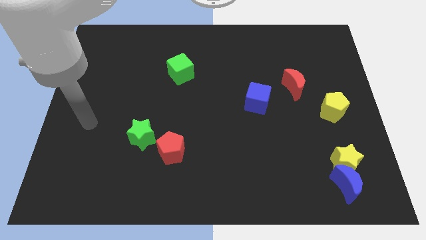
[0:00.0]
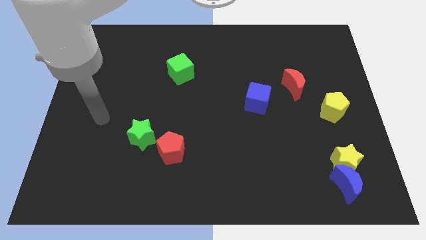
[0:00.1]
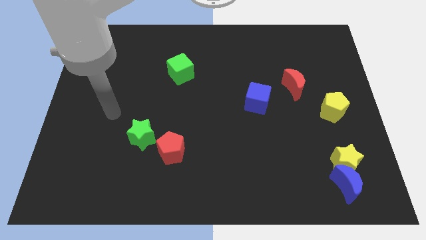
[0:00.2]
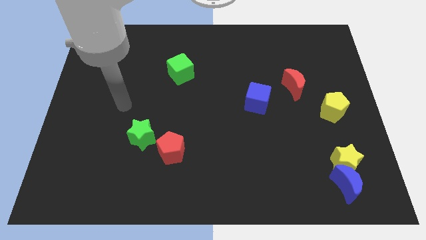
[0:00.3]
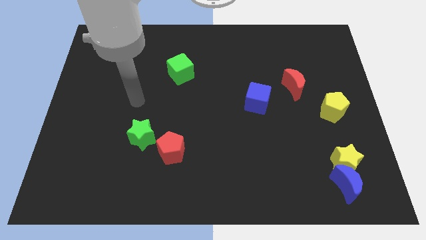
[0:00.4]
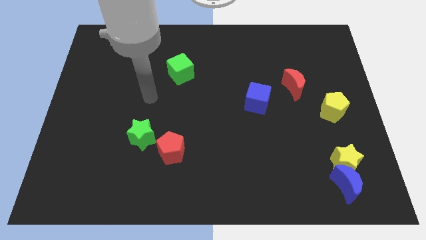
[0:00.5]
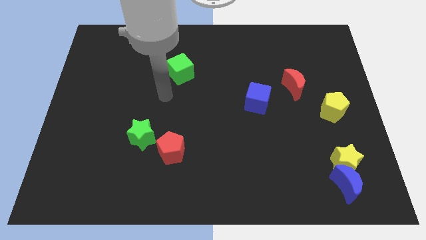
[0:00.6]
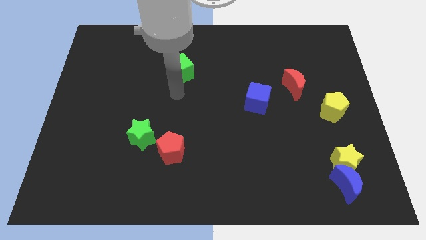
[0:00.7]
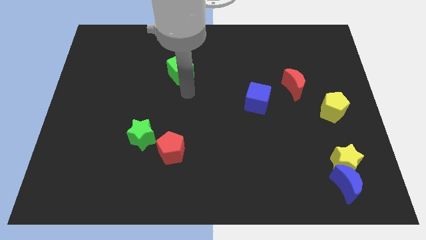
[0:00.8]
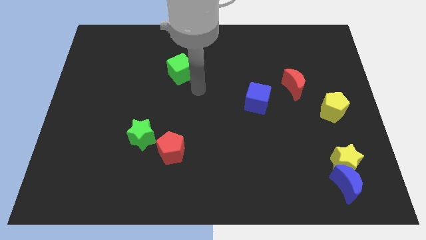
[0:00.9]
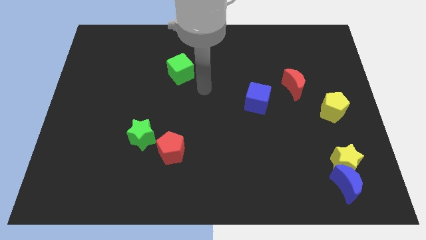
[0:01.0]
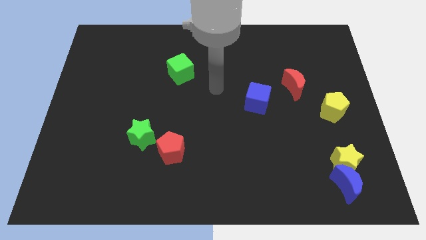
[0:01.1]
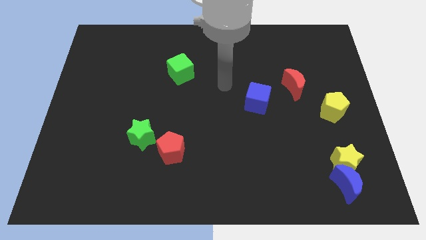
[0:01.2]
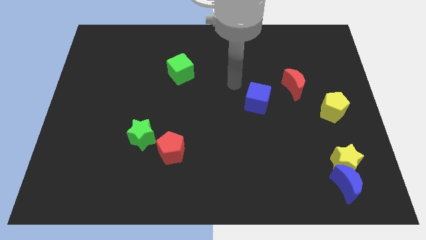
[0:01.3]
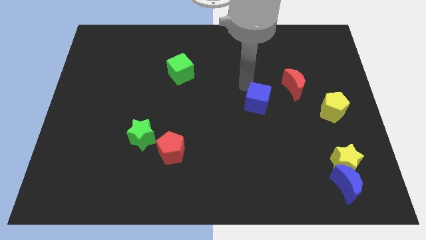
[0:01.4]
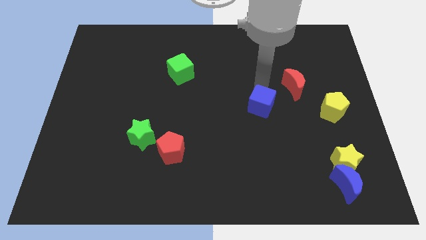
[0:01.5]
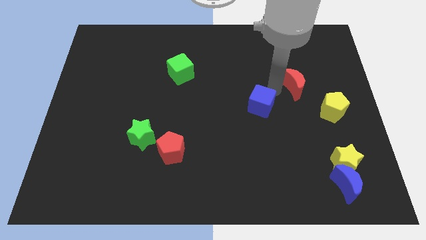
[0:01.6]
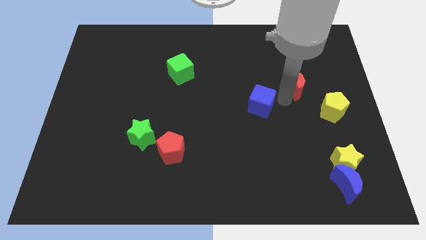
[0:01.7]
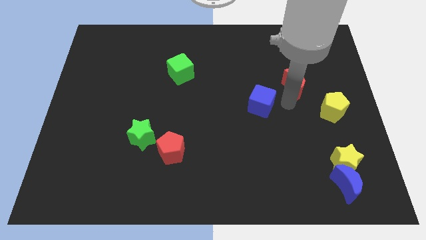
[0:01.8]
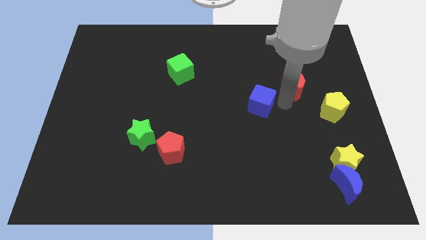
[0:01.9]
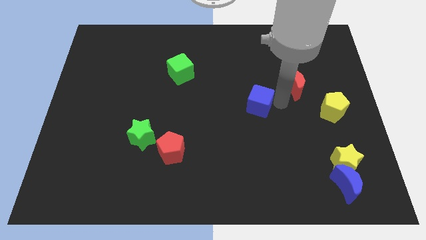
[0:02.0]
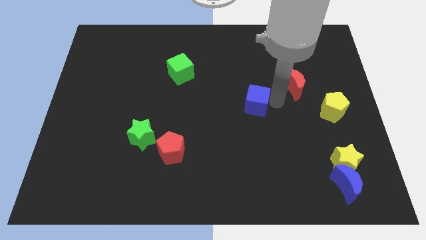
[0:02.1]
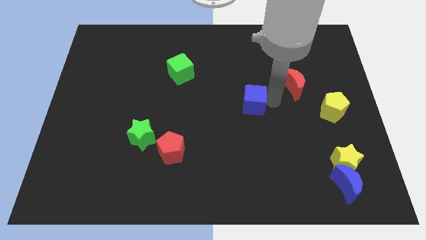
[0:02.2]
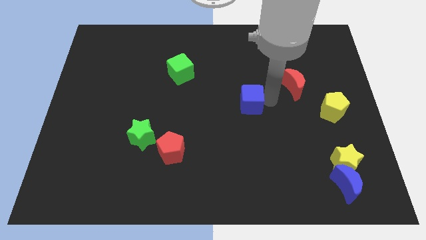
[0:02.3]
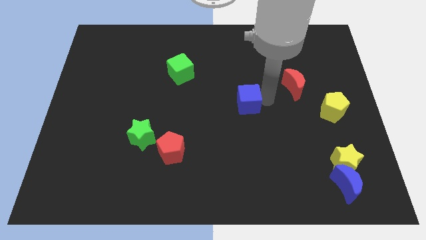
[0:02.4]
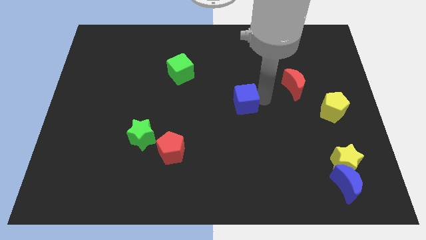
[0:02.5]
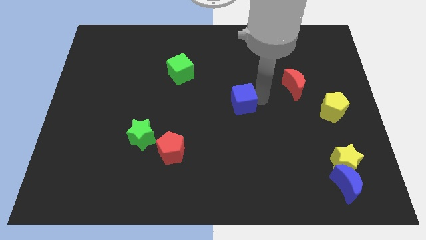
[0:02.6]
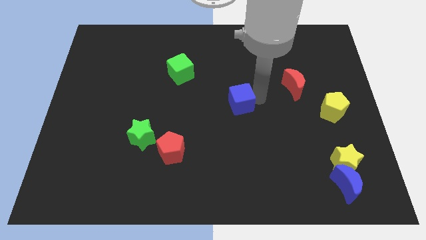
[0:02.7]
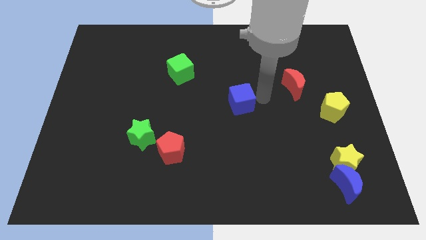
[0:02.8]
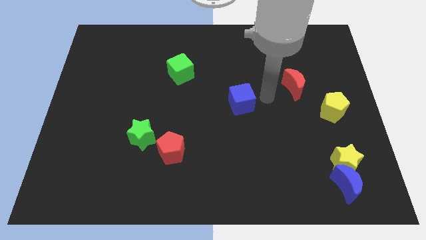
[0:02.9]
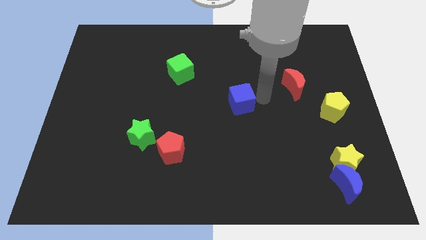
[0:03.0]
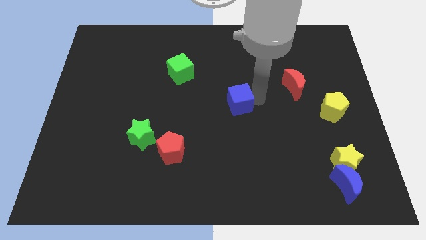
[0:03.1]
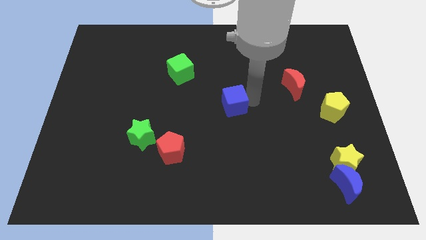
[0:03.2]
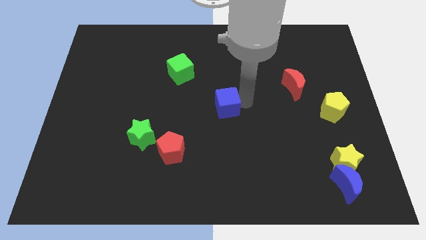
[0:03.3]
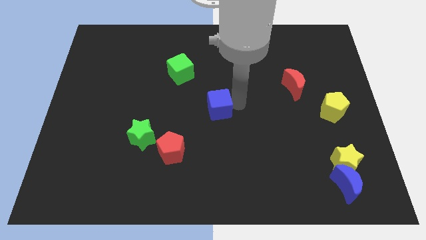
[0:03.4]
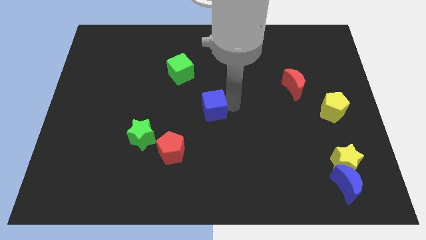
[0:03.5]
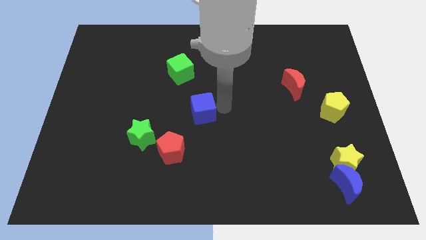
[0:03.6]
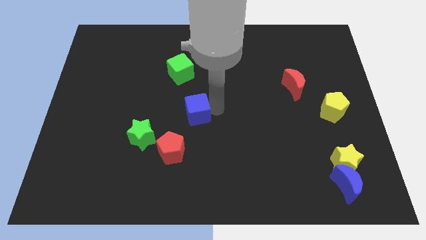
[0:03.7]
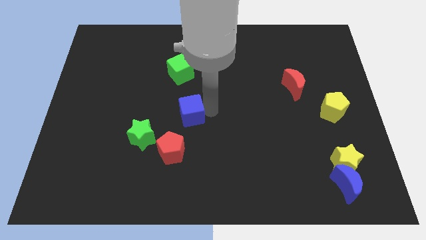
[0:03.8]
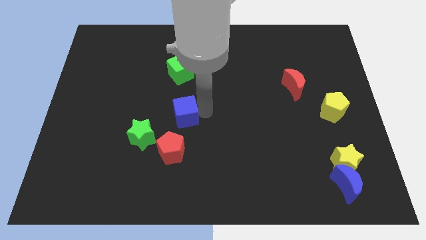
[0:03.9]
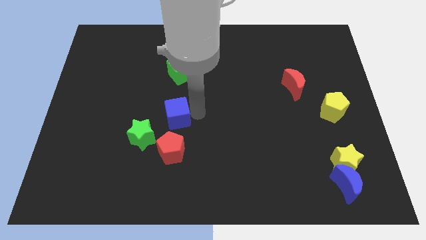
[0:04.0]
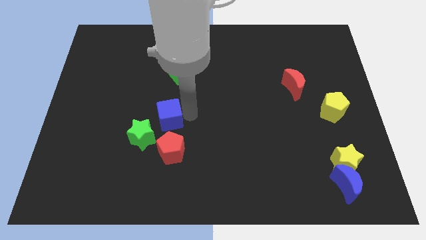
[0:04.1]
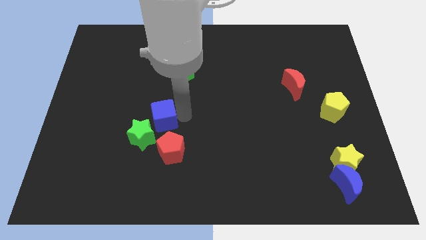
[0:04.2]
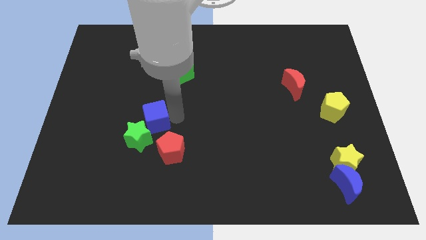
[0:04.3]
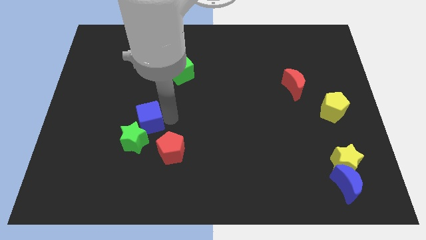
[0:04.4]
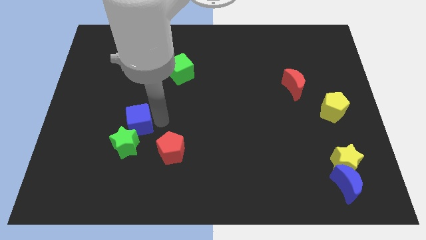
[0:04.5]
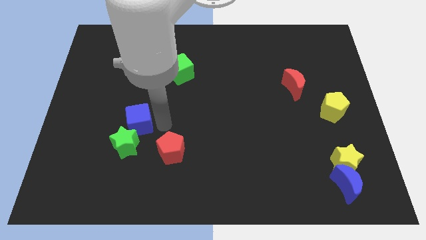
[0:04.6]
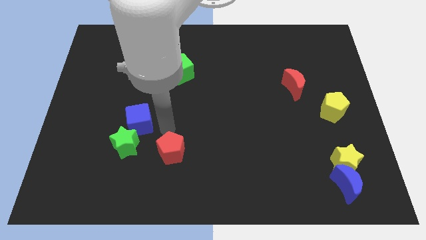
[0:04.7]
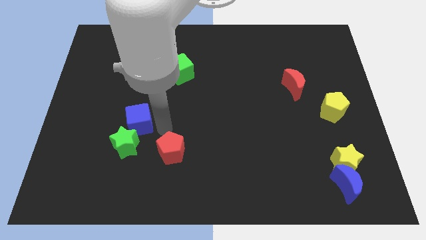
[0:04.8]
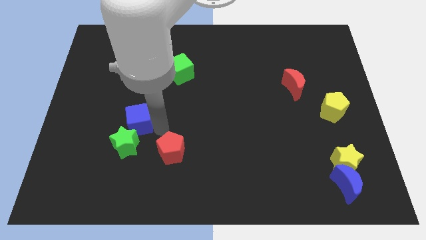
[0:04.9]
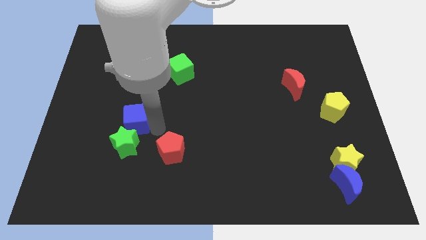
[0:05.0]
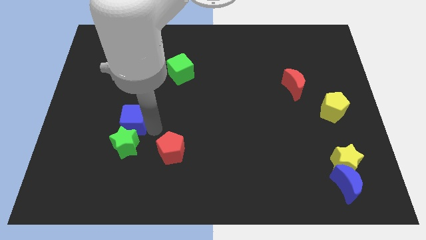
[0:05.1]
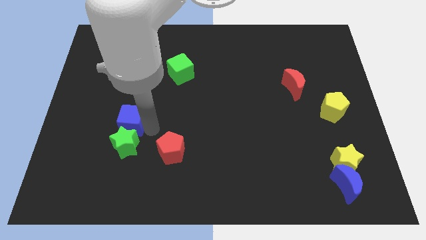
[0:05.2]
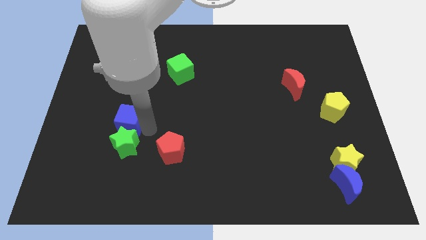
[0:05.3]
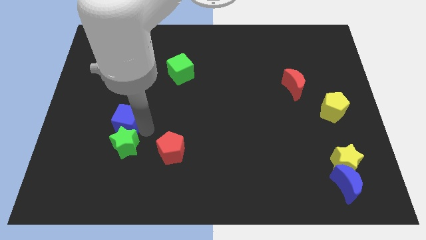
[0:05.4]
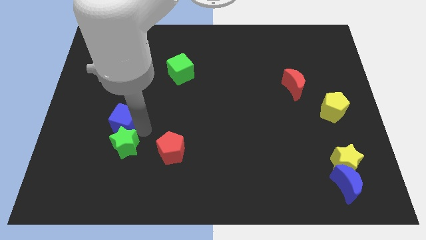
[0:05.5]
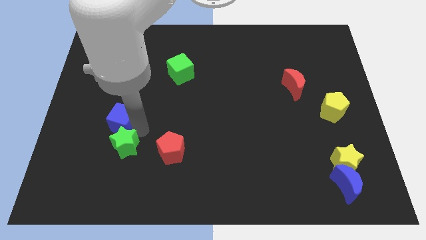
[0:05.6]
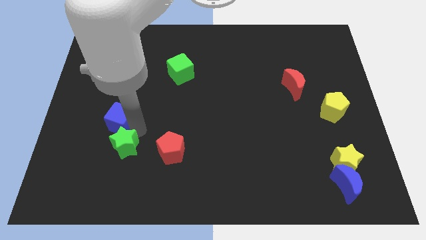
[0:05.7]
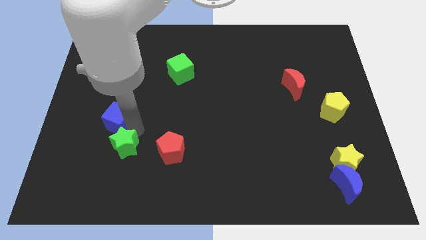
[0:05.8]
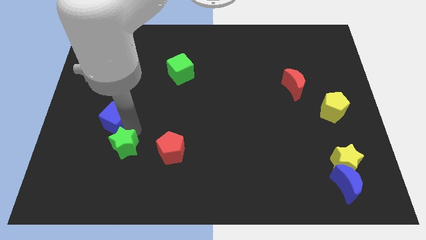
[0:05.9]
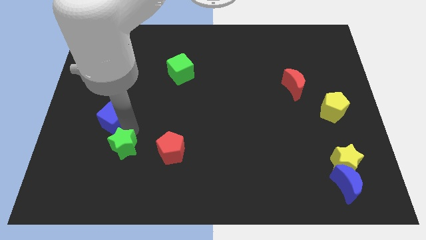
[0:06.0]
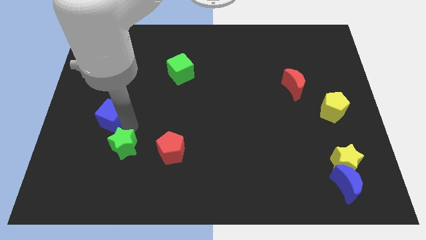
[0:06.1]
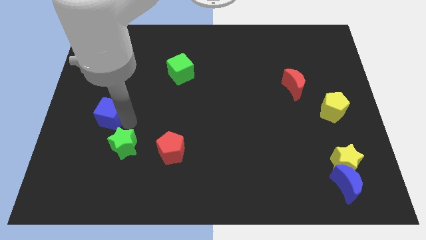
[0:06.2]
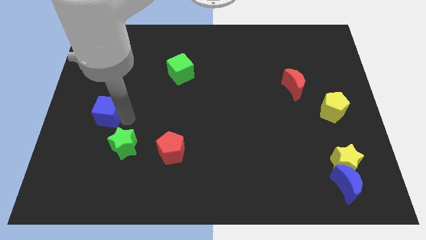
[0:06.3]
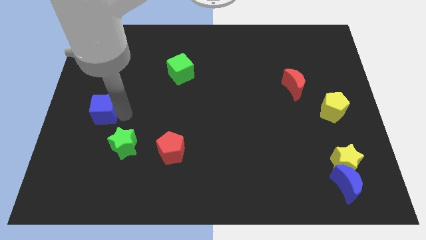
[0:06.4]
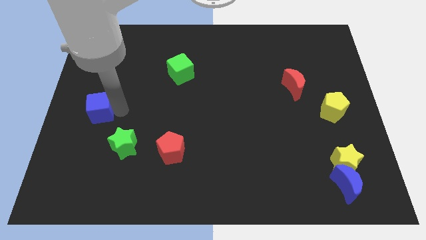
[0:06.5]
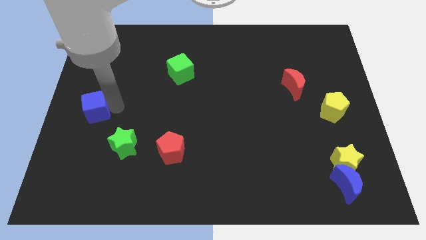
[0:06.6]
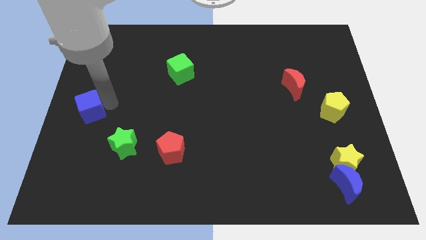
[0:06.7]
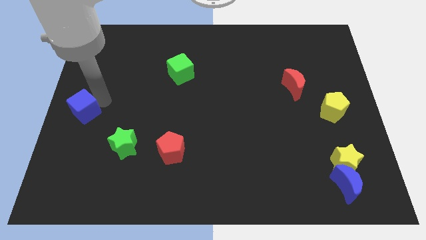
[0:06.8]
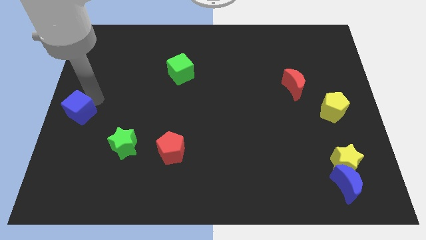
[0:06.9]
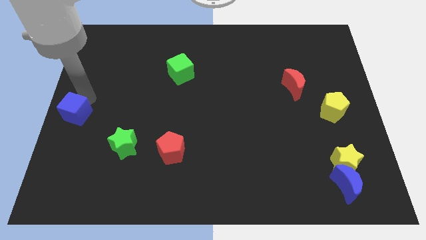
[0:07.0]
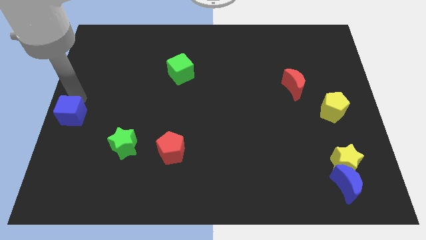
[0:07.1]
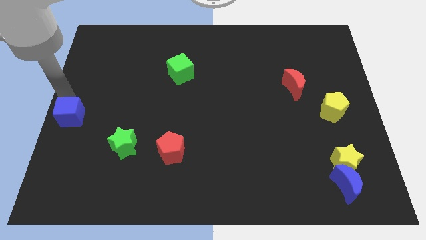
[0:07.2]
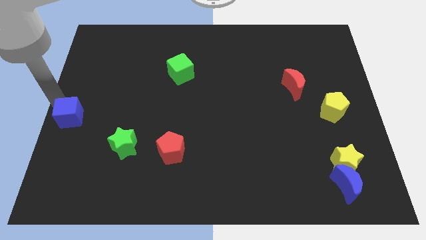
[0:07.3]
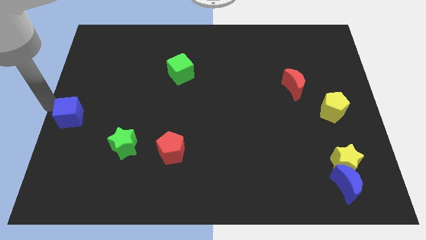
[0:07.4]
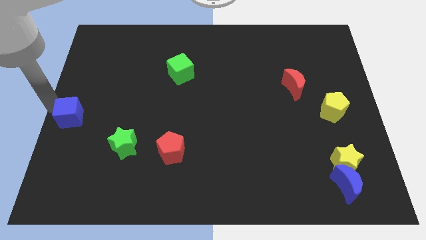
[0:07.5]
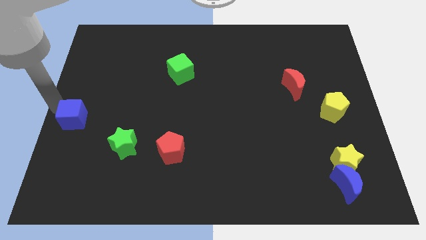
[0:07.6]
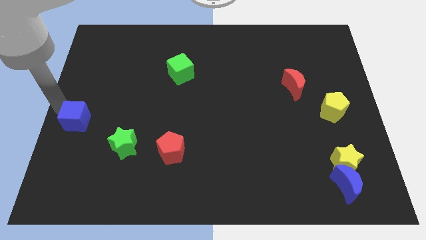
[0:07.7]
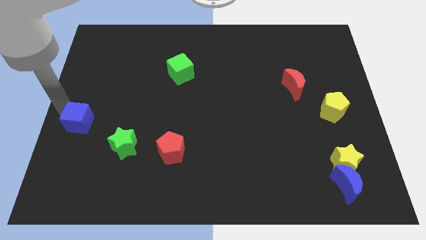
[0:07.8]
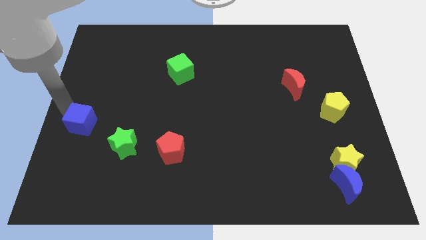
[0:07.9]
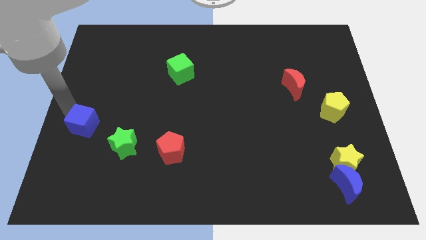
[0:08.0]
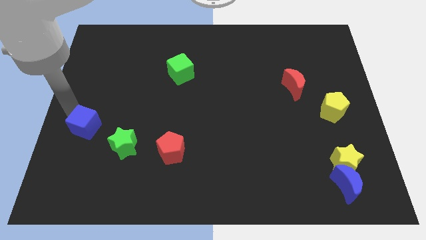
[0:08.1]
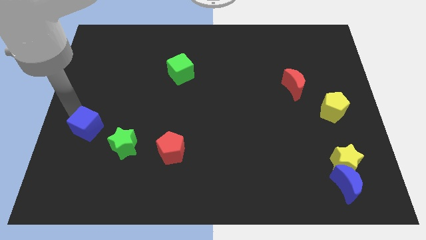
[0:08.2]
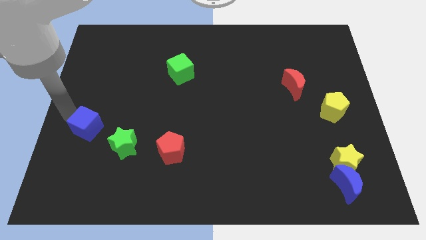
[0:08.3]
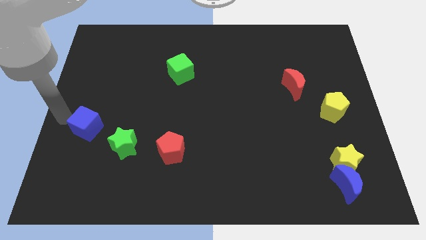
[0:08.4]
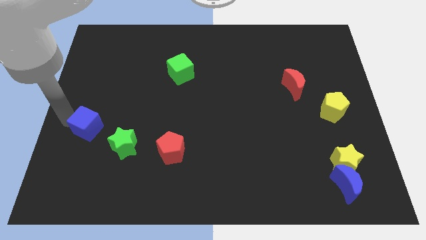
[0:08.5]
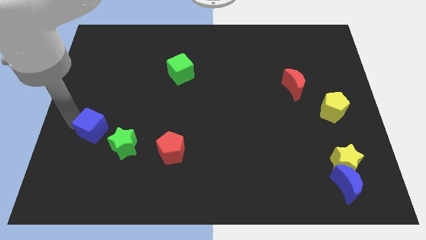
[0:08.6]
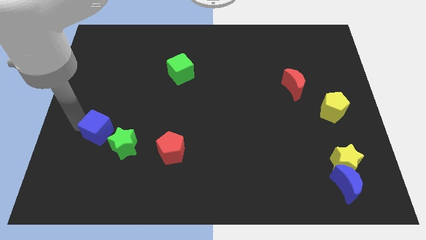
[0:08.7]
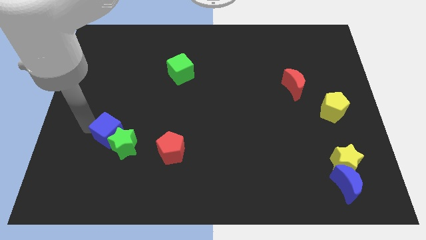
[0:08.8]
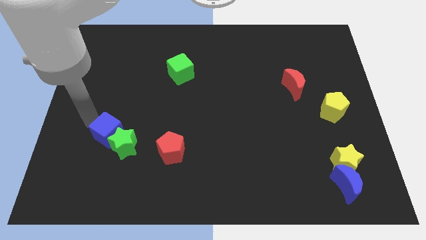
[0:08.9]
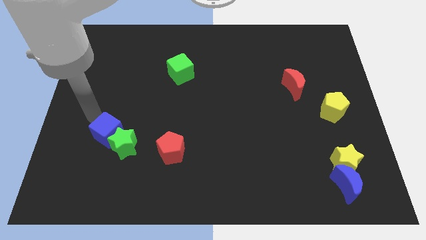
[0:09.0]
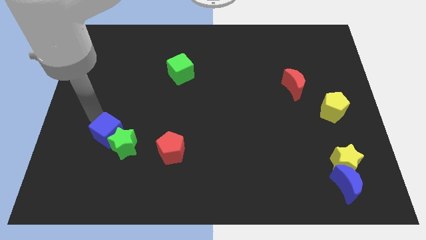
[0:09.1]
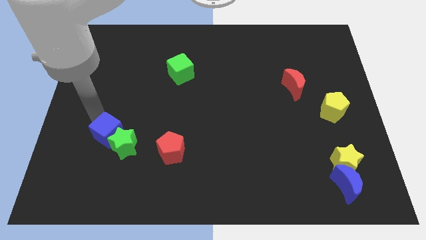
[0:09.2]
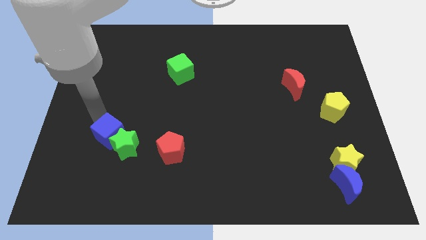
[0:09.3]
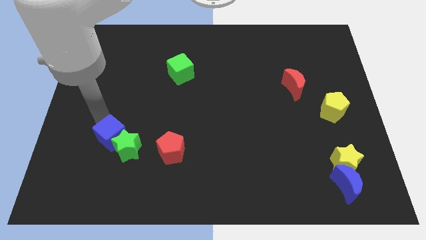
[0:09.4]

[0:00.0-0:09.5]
move the blue cube to the left side of the red pentagon
